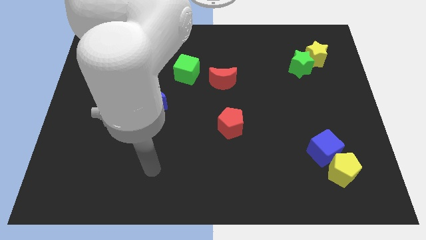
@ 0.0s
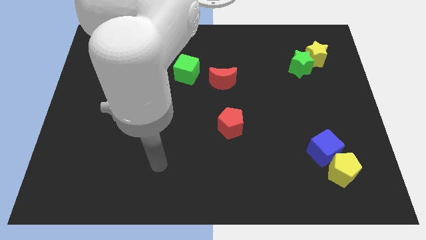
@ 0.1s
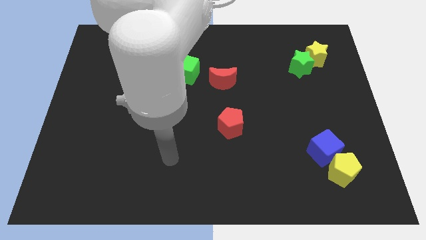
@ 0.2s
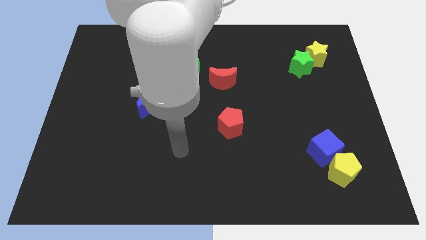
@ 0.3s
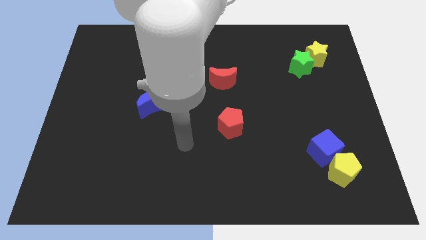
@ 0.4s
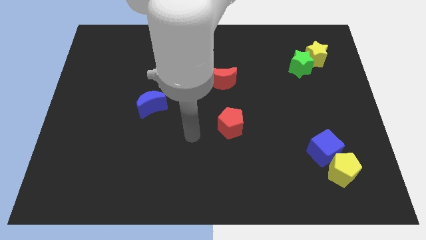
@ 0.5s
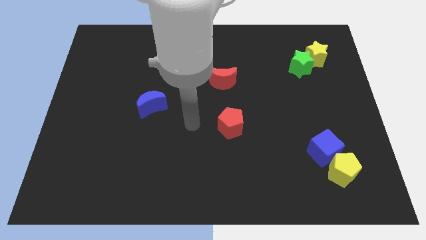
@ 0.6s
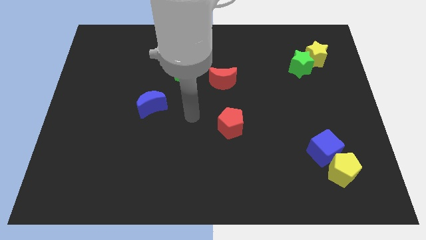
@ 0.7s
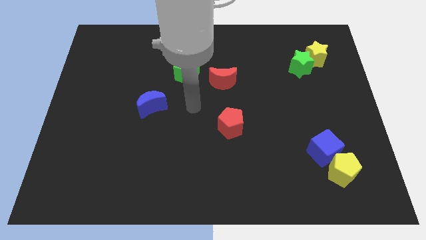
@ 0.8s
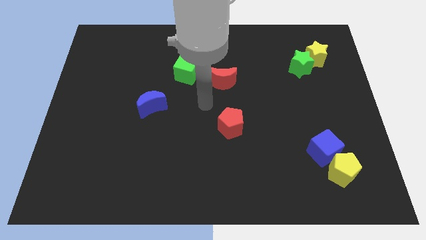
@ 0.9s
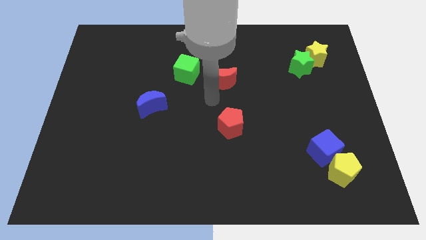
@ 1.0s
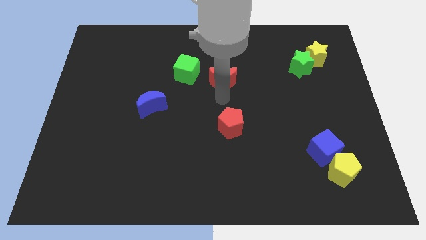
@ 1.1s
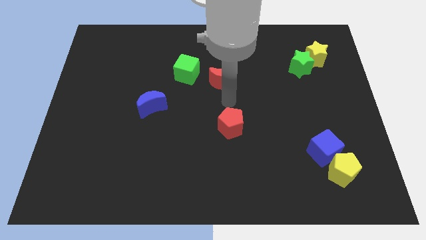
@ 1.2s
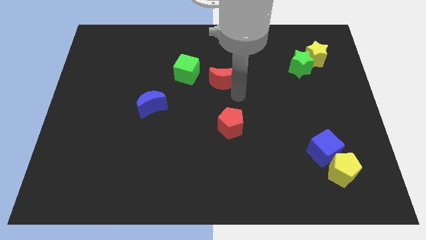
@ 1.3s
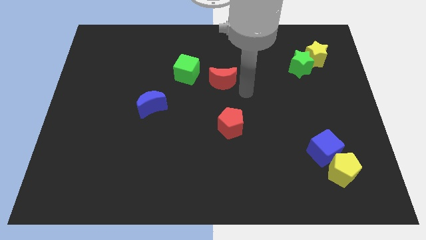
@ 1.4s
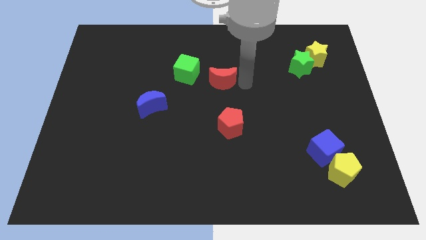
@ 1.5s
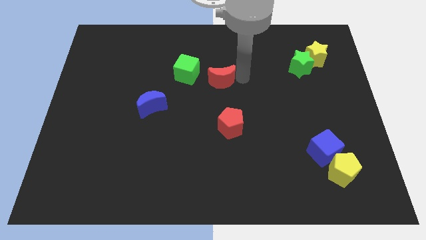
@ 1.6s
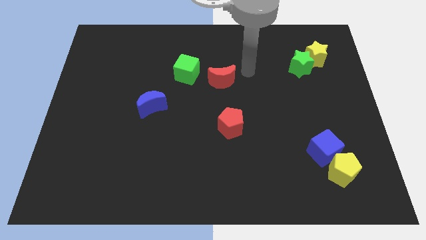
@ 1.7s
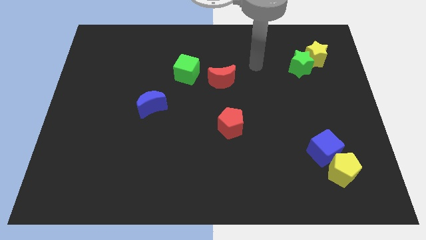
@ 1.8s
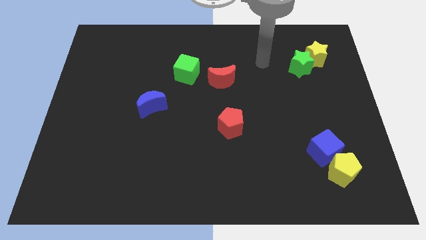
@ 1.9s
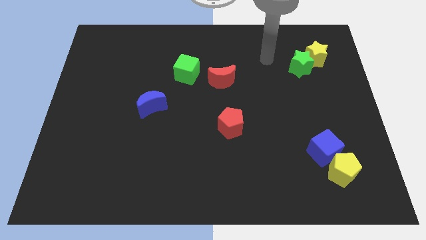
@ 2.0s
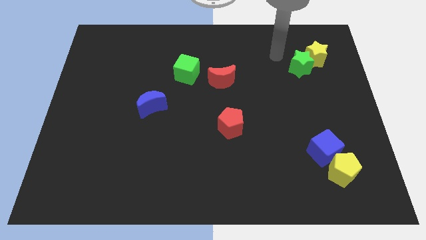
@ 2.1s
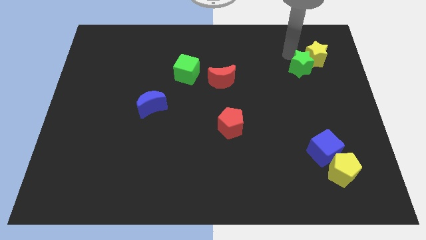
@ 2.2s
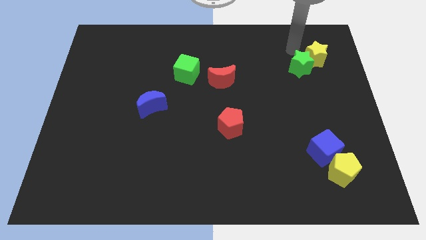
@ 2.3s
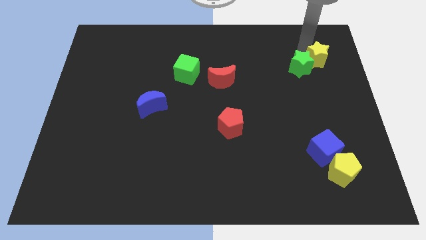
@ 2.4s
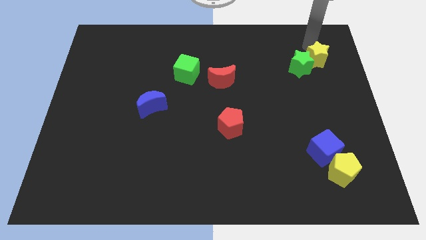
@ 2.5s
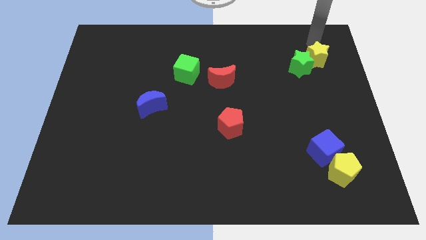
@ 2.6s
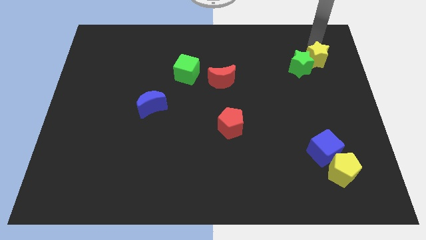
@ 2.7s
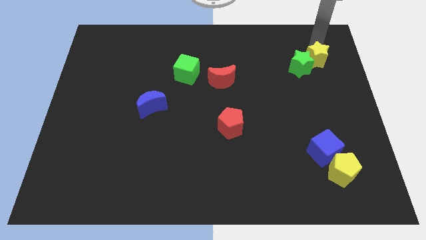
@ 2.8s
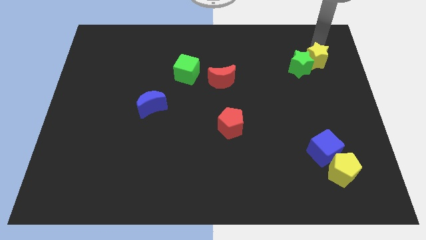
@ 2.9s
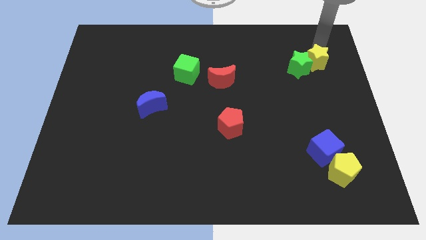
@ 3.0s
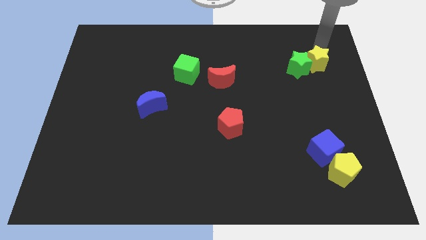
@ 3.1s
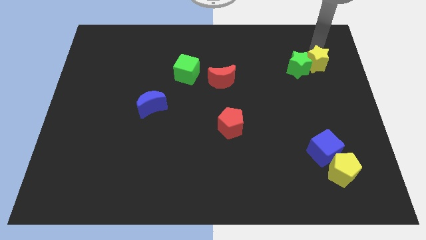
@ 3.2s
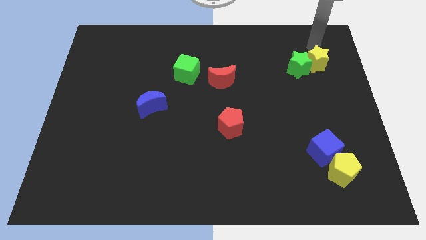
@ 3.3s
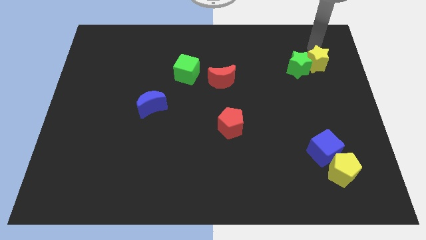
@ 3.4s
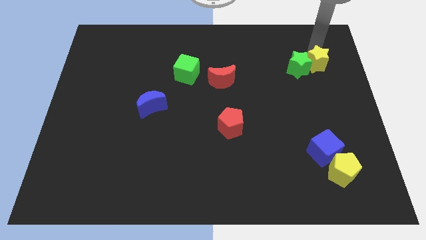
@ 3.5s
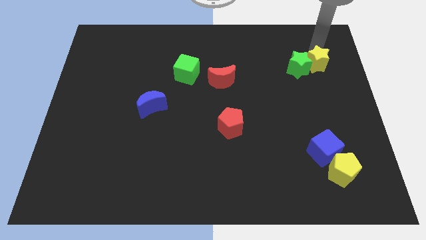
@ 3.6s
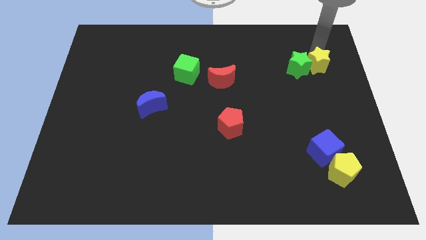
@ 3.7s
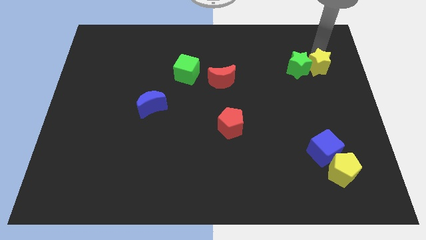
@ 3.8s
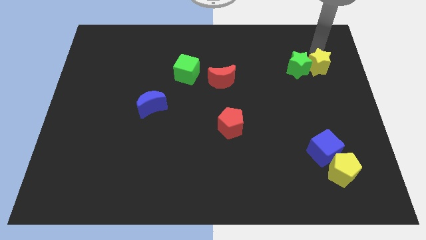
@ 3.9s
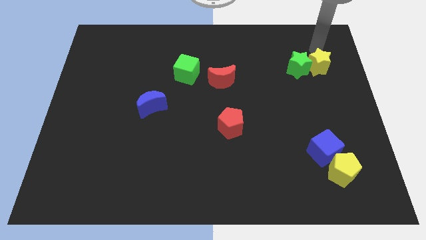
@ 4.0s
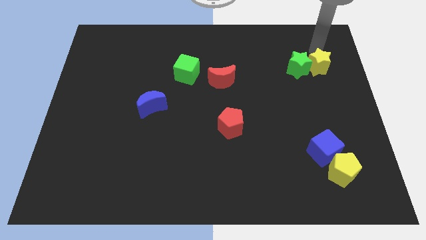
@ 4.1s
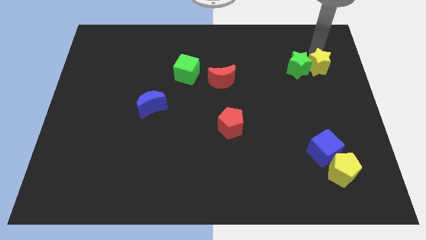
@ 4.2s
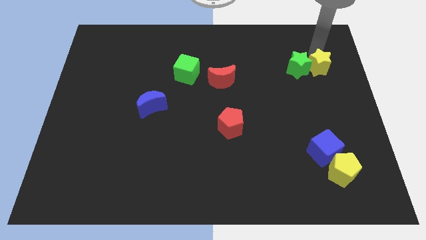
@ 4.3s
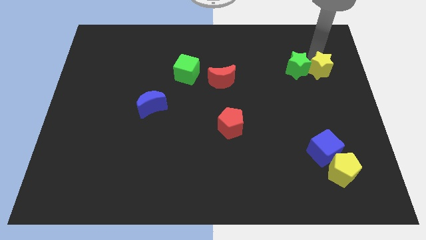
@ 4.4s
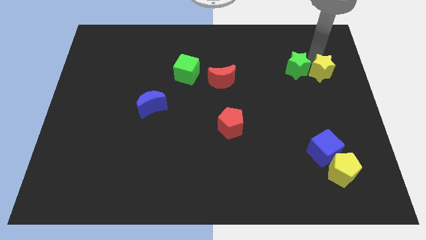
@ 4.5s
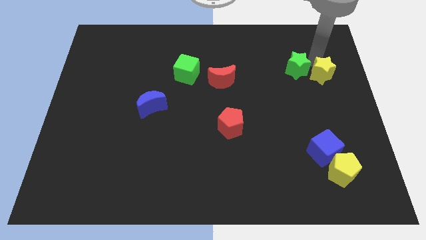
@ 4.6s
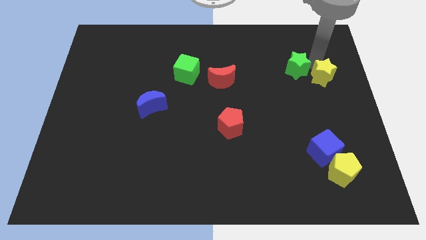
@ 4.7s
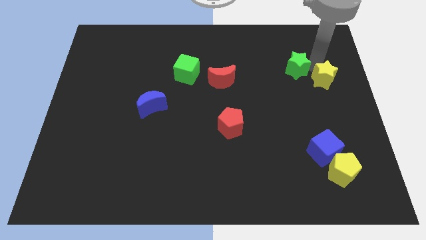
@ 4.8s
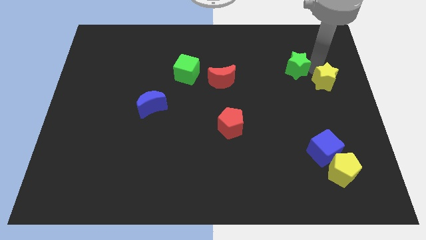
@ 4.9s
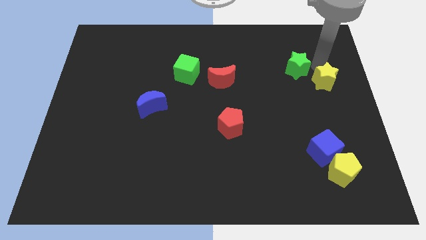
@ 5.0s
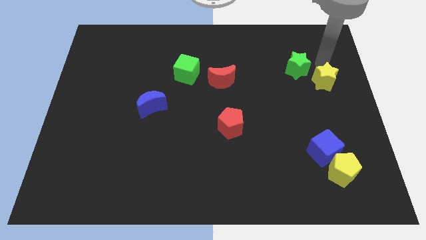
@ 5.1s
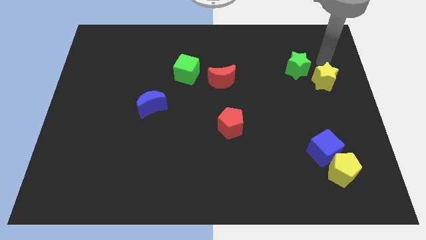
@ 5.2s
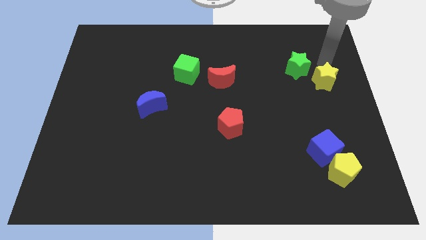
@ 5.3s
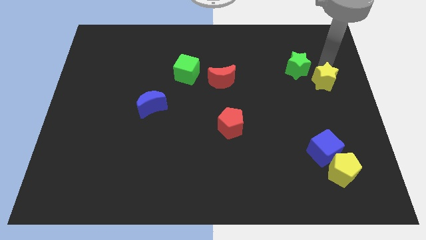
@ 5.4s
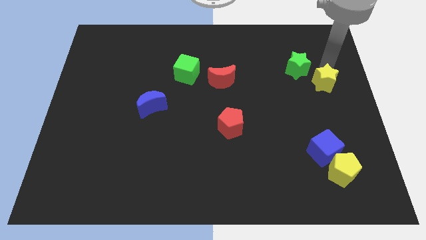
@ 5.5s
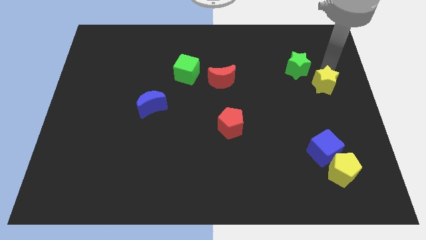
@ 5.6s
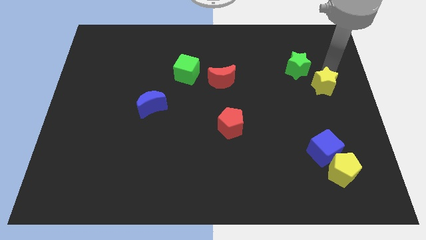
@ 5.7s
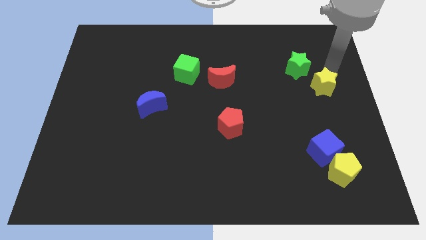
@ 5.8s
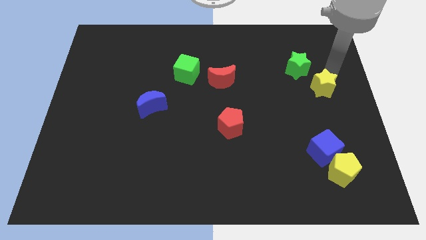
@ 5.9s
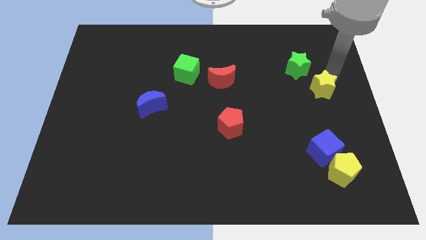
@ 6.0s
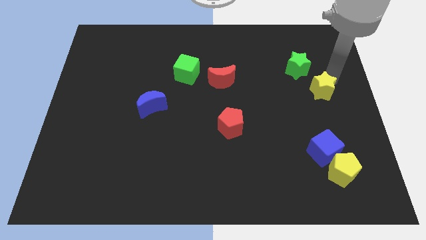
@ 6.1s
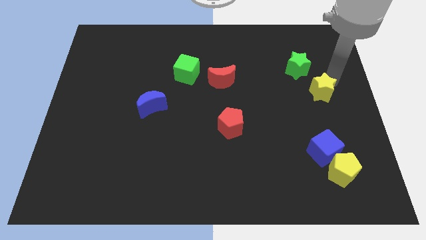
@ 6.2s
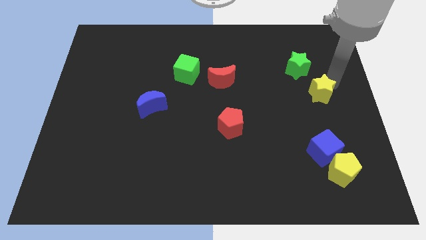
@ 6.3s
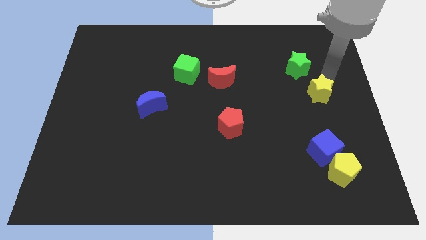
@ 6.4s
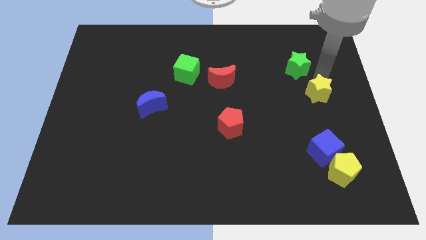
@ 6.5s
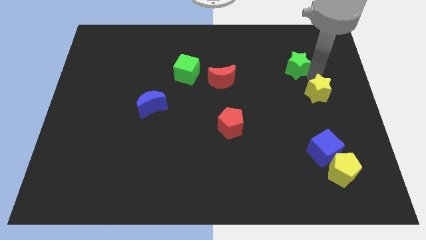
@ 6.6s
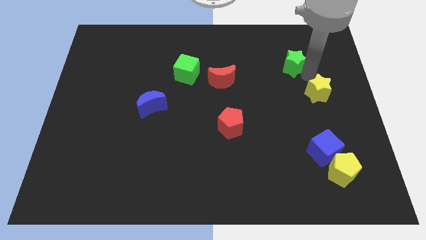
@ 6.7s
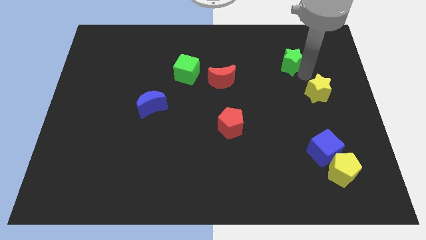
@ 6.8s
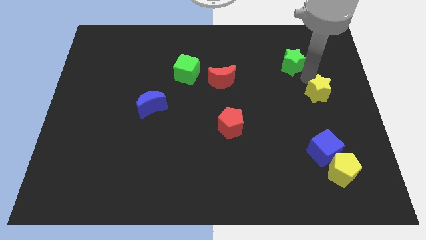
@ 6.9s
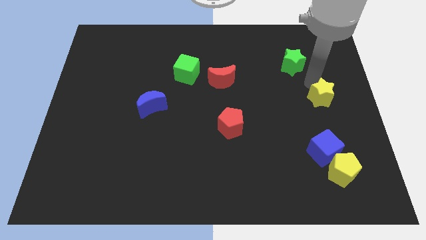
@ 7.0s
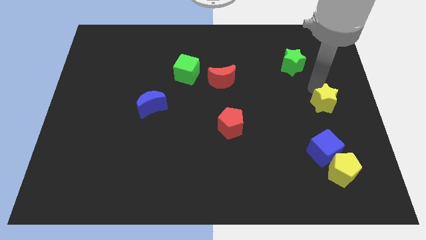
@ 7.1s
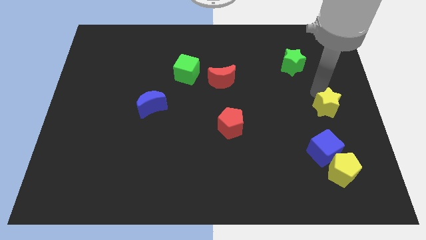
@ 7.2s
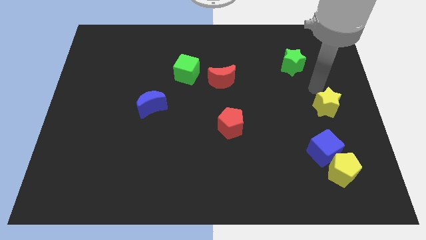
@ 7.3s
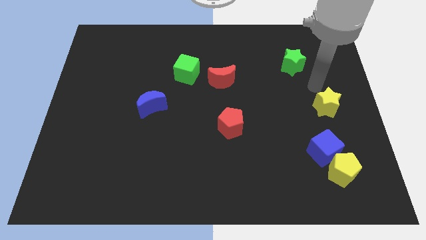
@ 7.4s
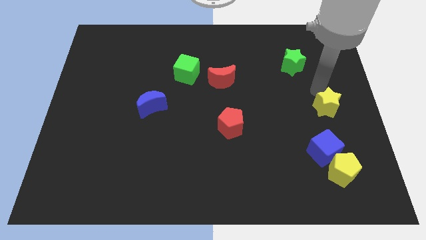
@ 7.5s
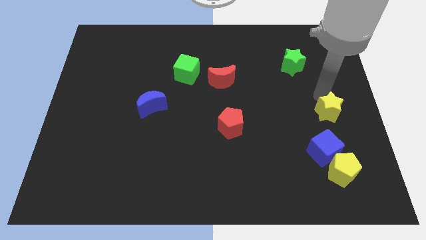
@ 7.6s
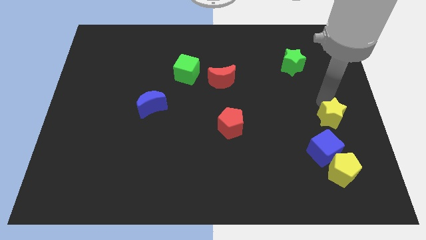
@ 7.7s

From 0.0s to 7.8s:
put the yellow star to the top right side of the blue cube
